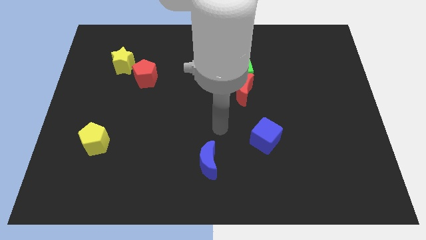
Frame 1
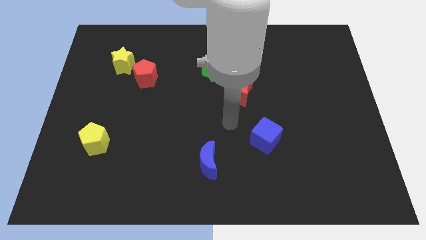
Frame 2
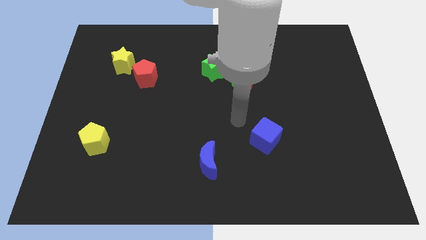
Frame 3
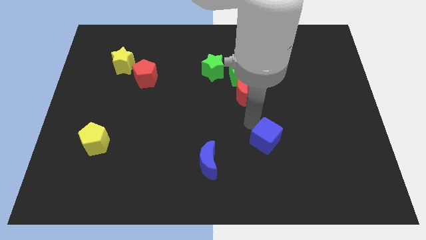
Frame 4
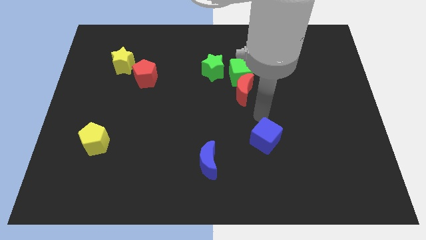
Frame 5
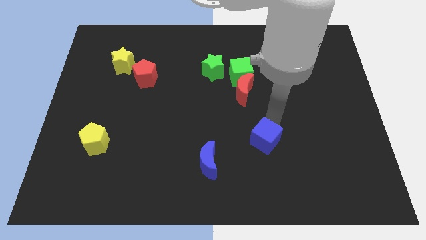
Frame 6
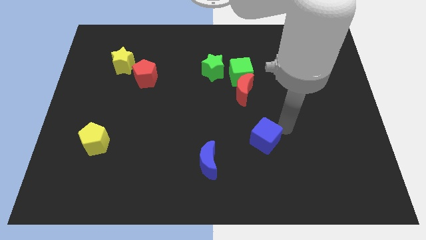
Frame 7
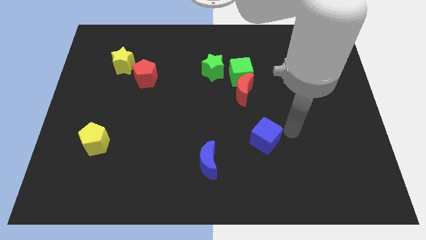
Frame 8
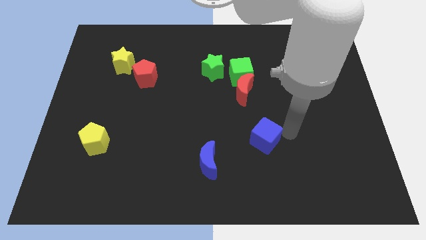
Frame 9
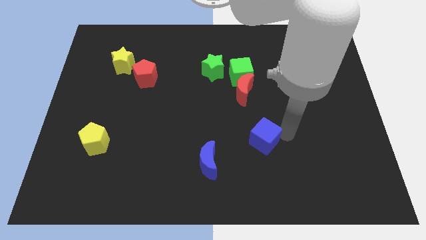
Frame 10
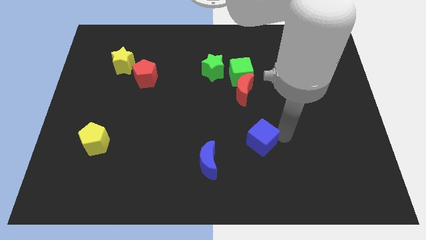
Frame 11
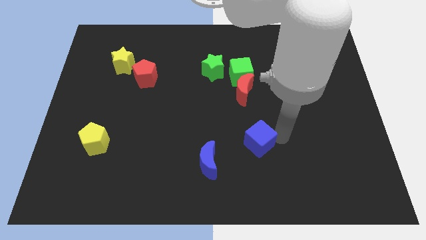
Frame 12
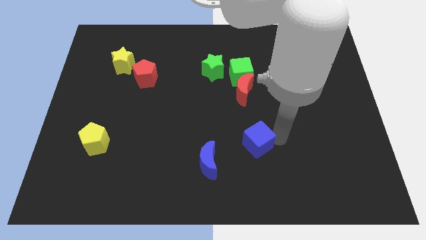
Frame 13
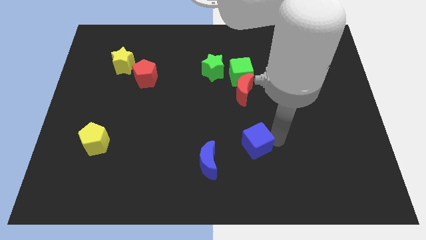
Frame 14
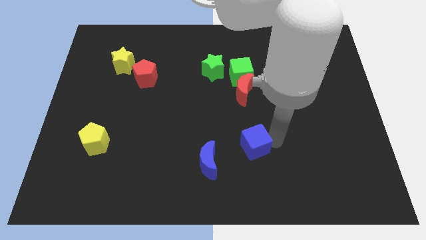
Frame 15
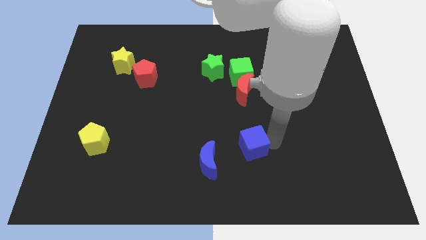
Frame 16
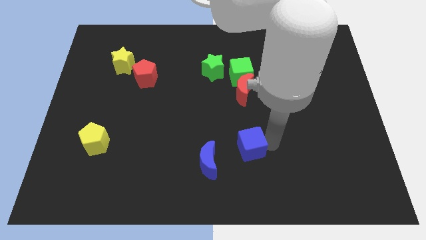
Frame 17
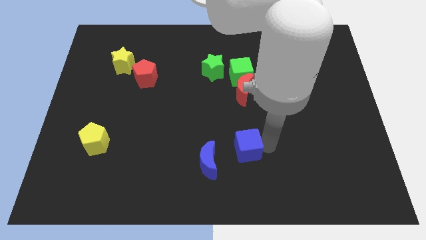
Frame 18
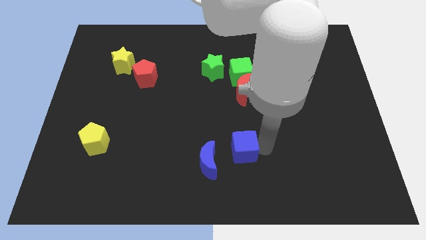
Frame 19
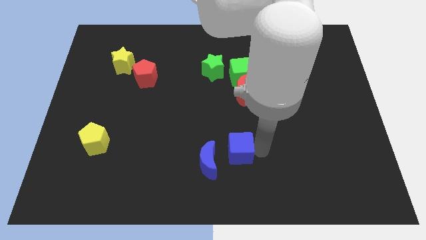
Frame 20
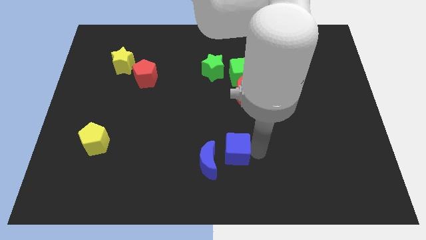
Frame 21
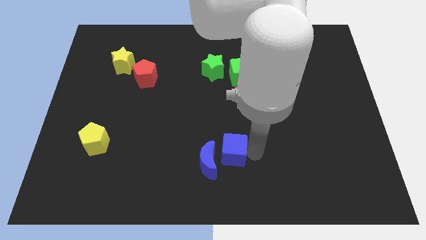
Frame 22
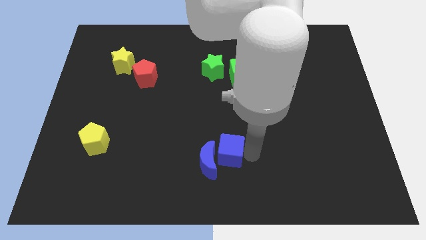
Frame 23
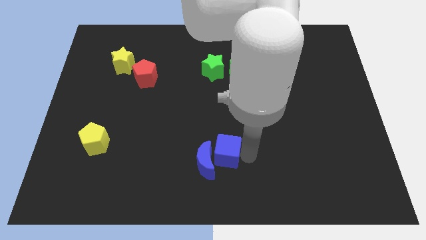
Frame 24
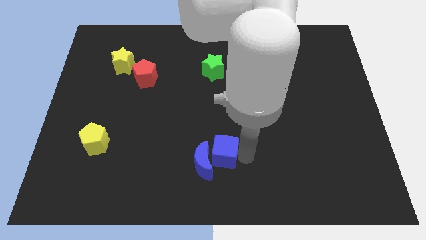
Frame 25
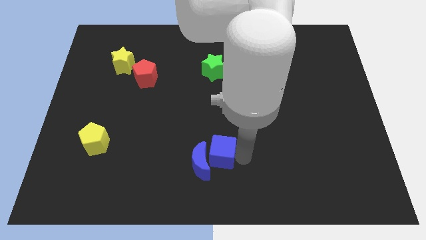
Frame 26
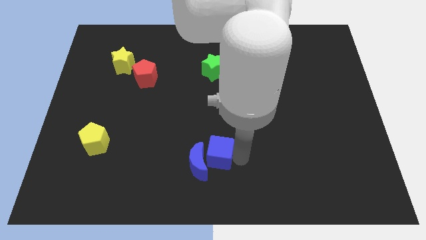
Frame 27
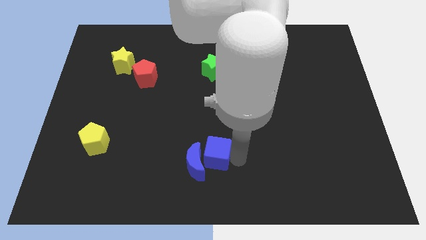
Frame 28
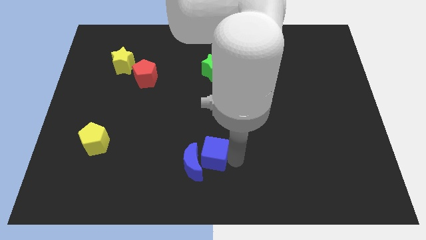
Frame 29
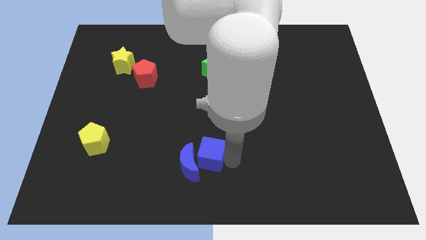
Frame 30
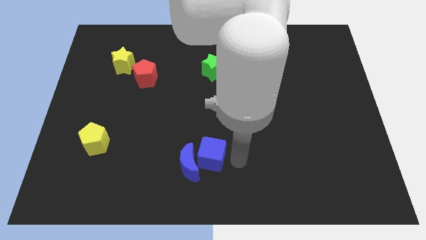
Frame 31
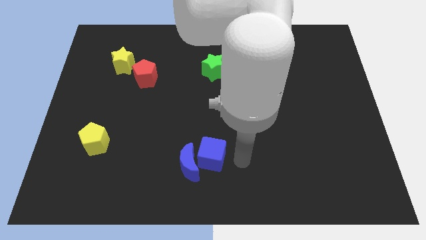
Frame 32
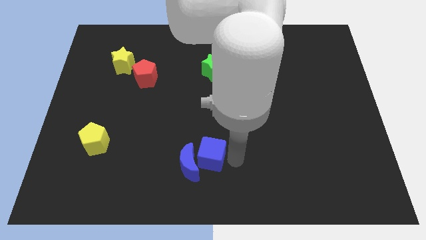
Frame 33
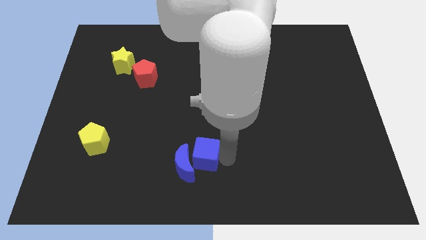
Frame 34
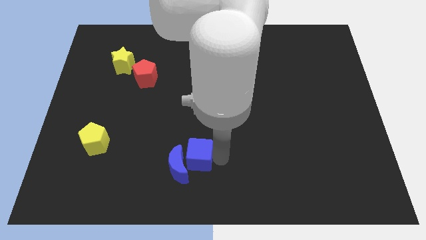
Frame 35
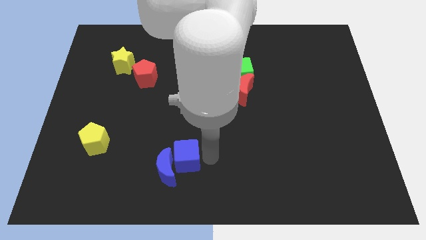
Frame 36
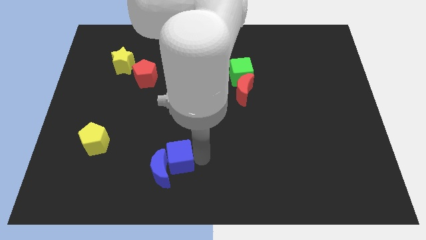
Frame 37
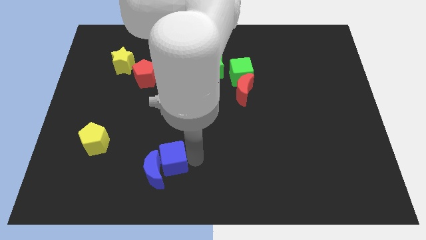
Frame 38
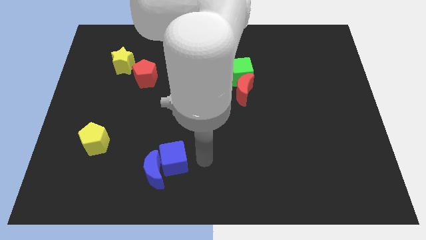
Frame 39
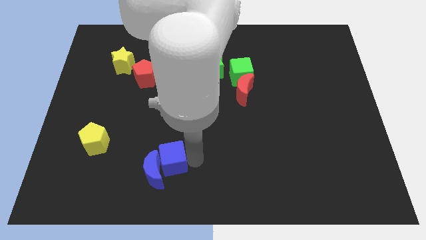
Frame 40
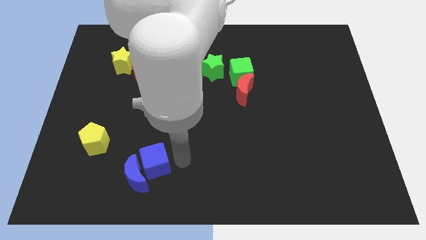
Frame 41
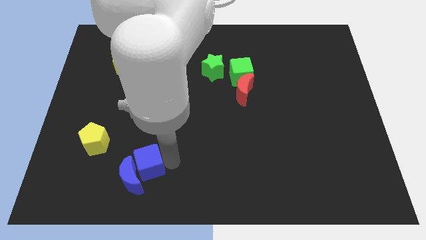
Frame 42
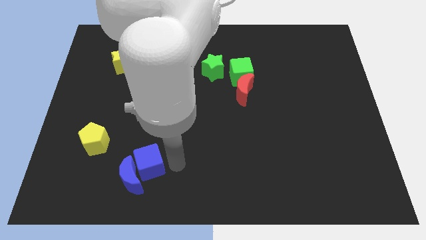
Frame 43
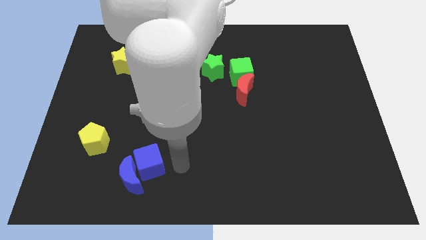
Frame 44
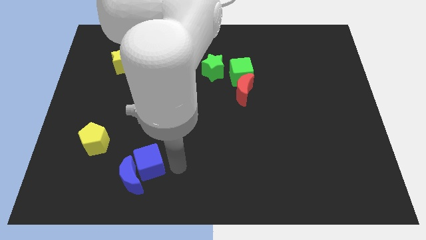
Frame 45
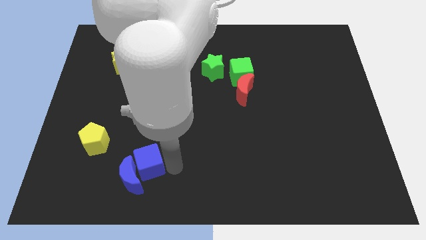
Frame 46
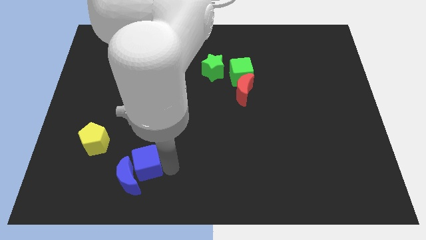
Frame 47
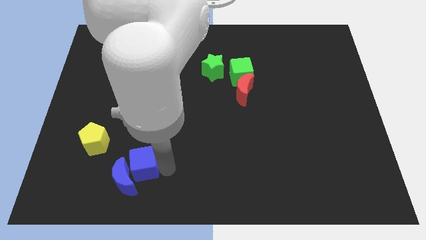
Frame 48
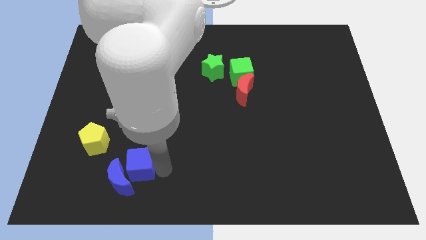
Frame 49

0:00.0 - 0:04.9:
slide the blue cube diagonally down and to the right of the yellow pentagon

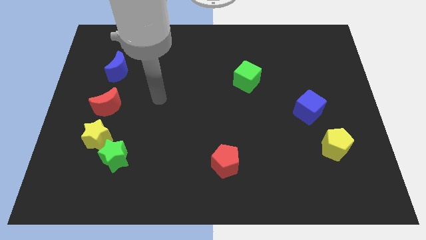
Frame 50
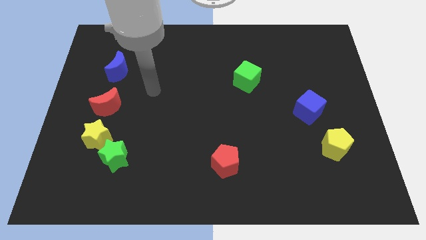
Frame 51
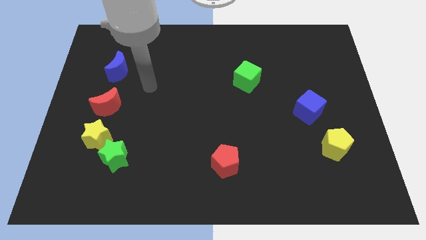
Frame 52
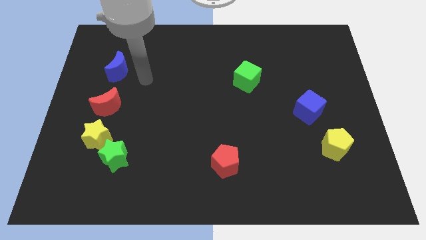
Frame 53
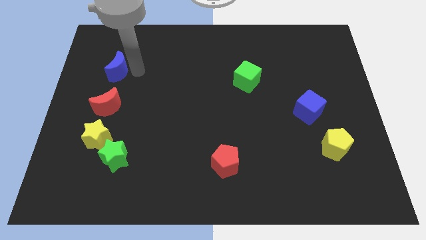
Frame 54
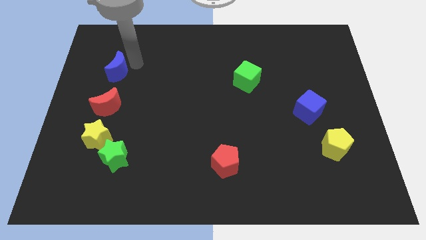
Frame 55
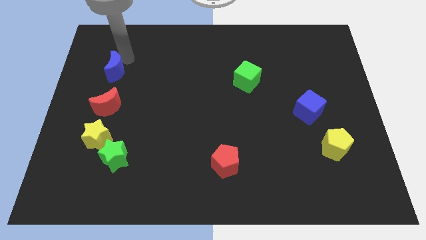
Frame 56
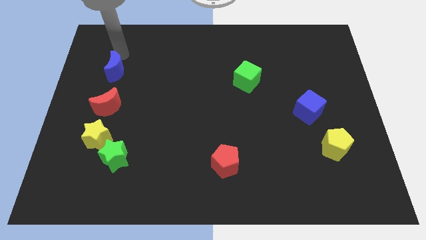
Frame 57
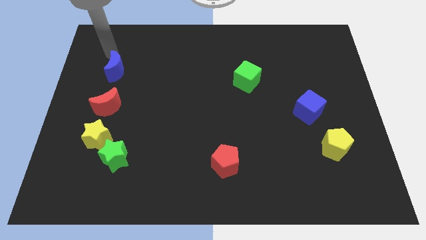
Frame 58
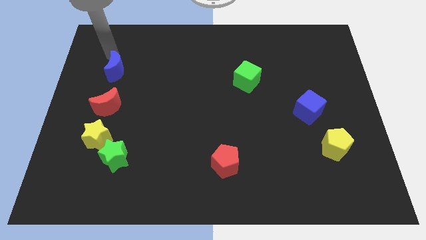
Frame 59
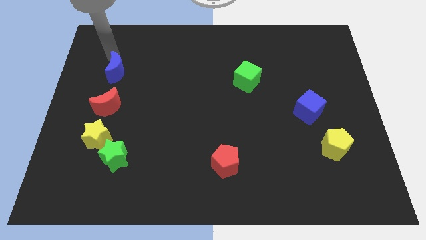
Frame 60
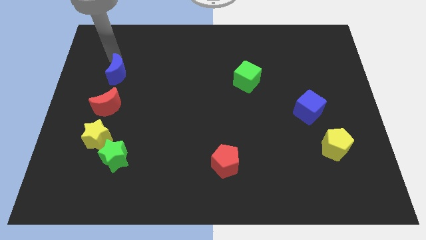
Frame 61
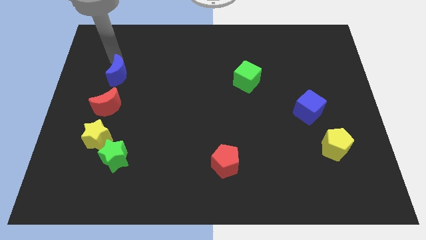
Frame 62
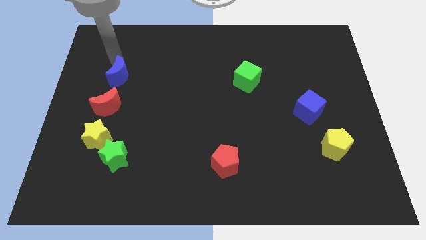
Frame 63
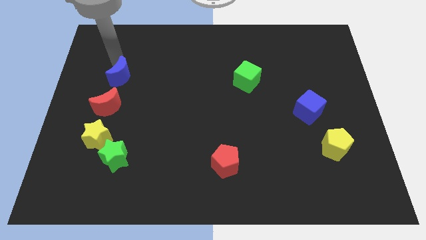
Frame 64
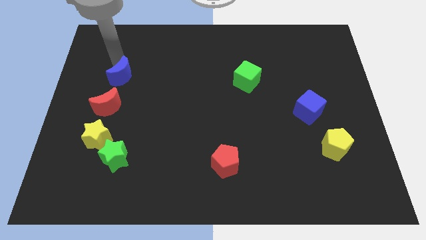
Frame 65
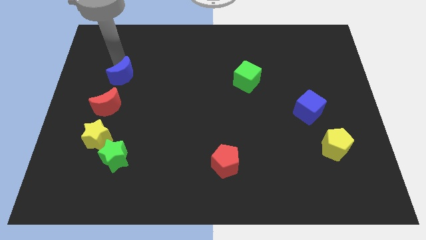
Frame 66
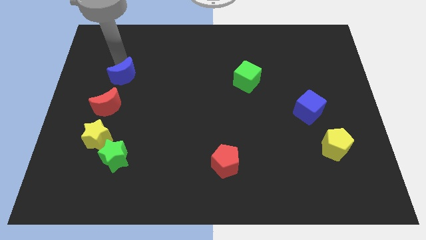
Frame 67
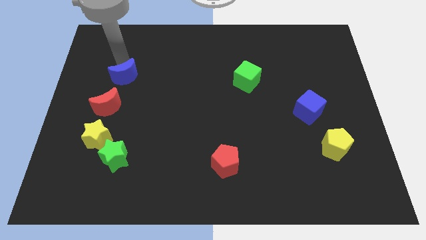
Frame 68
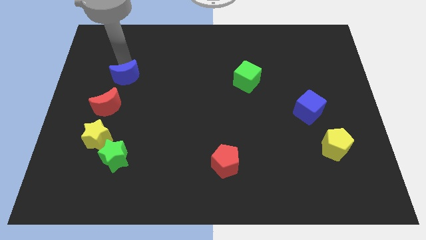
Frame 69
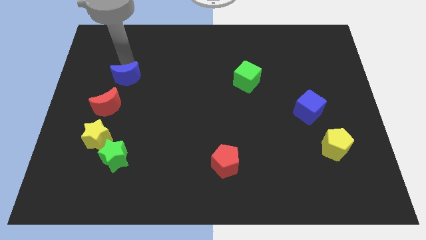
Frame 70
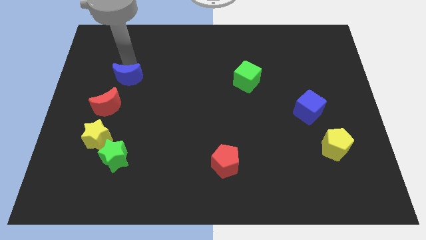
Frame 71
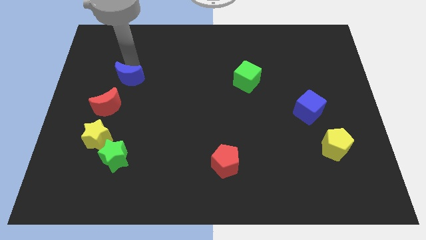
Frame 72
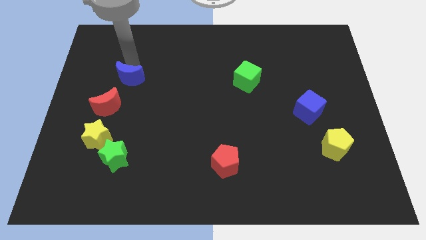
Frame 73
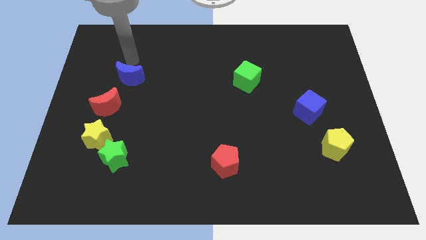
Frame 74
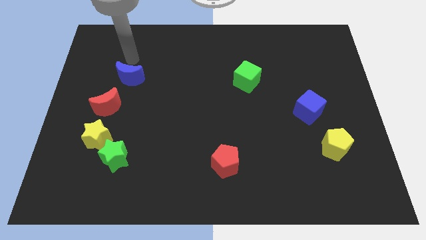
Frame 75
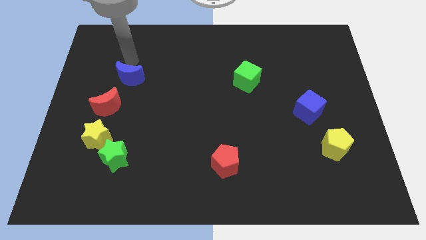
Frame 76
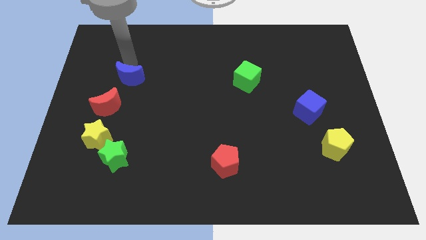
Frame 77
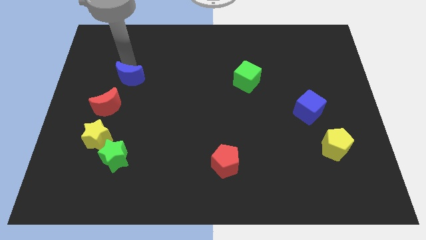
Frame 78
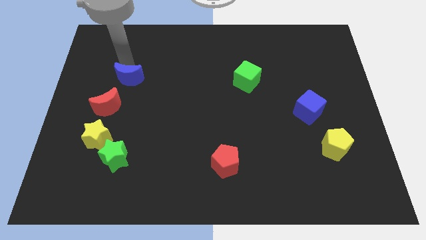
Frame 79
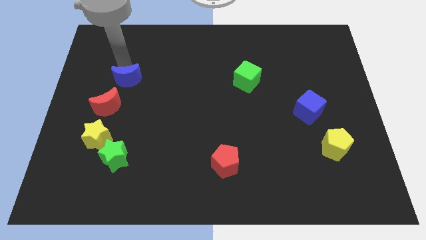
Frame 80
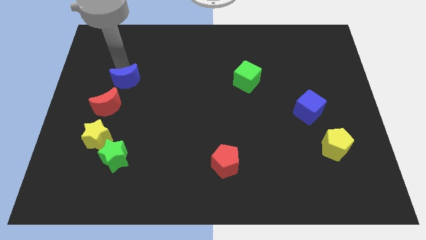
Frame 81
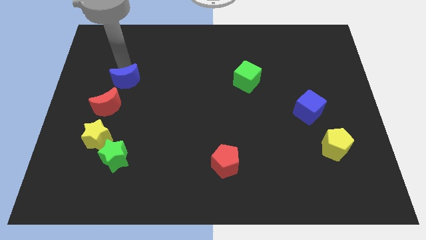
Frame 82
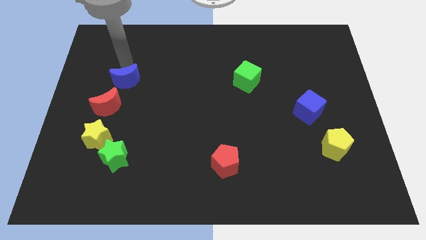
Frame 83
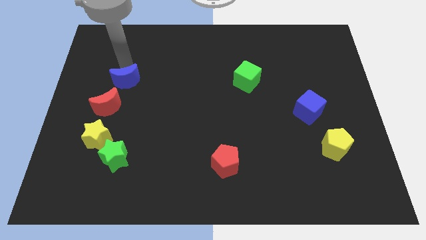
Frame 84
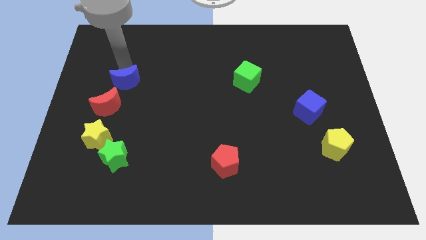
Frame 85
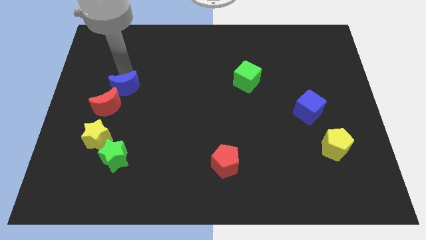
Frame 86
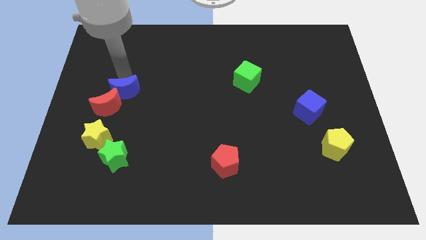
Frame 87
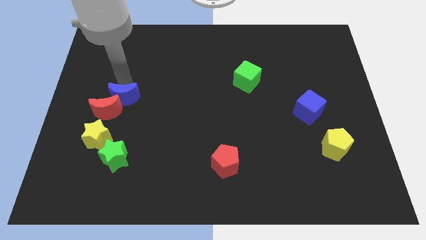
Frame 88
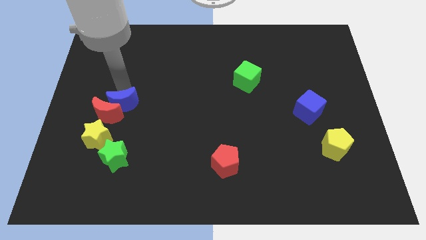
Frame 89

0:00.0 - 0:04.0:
push the blue moon to the top right of the yellow star
